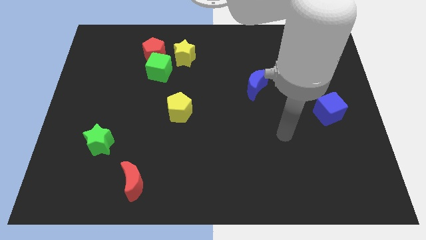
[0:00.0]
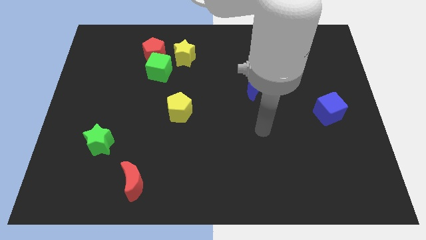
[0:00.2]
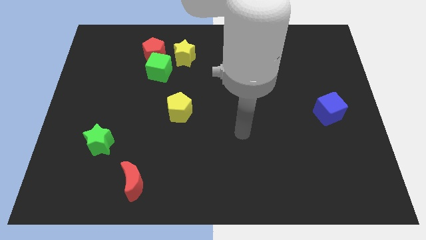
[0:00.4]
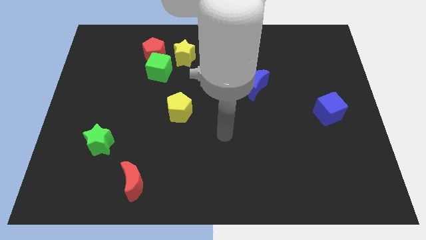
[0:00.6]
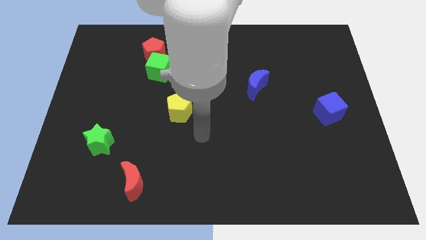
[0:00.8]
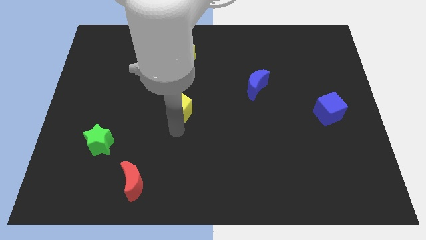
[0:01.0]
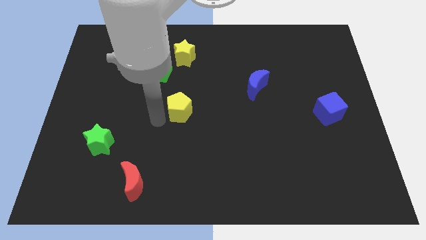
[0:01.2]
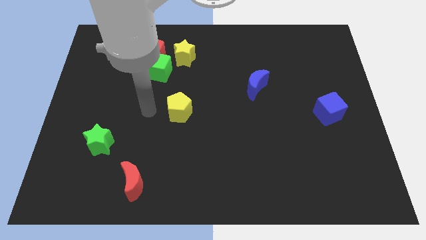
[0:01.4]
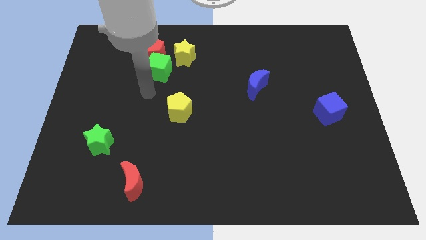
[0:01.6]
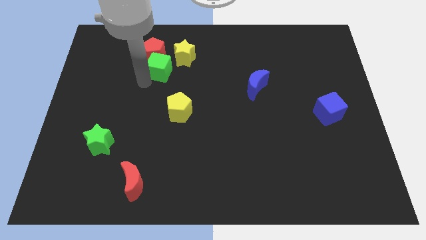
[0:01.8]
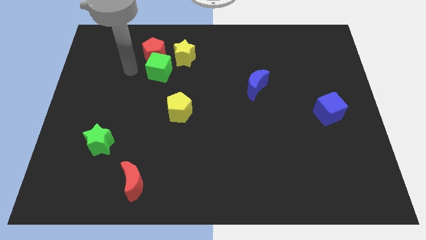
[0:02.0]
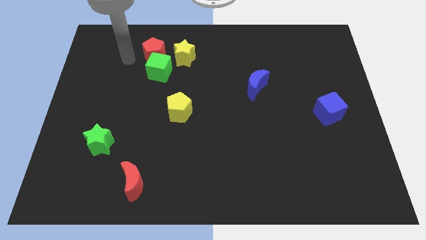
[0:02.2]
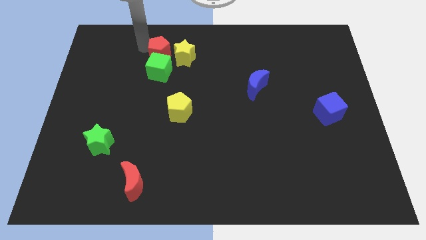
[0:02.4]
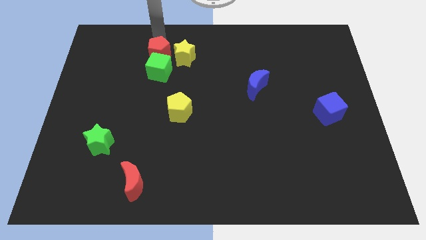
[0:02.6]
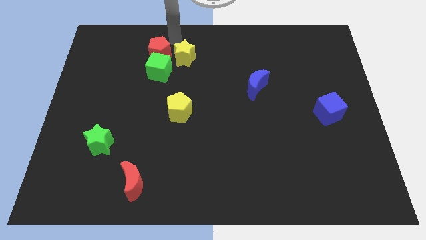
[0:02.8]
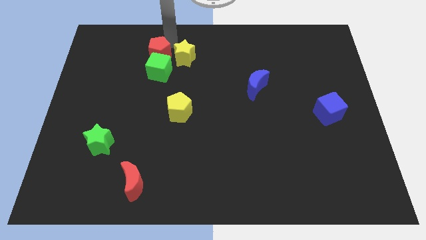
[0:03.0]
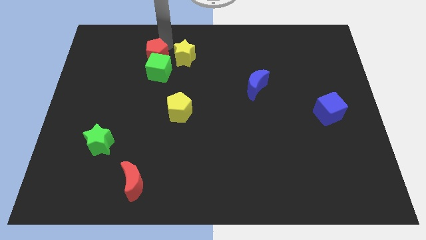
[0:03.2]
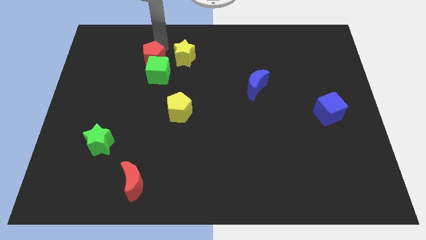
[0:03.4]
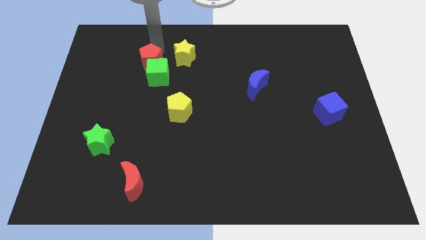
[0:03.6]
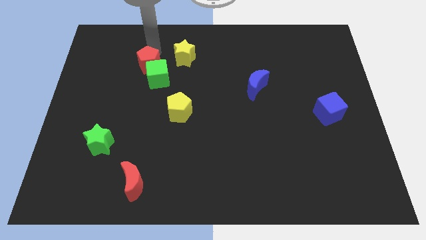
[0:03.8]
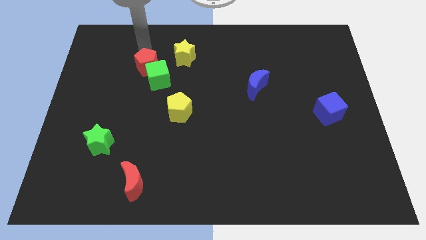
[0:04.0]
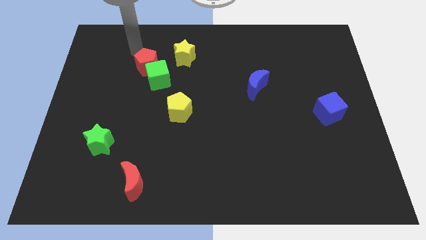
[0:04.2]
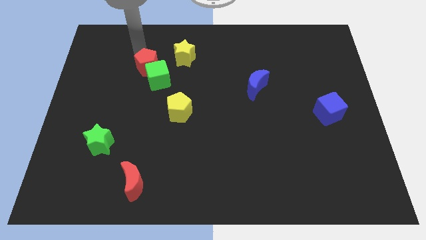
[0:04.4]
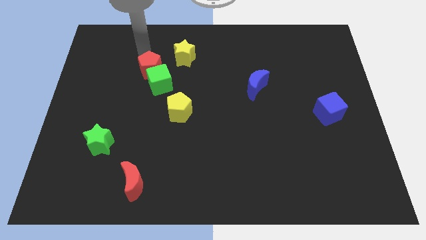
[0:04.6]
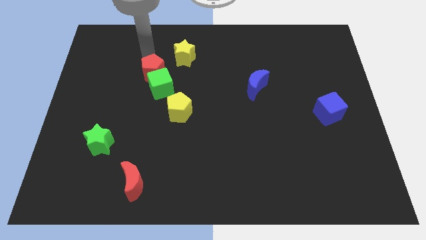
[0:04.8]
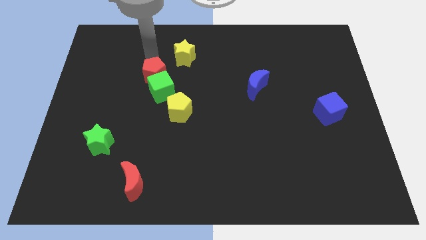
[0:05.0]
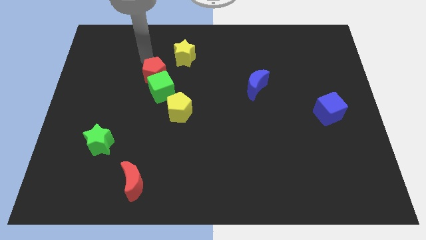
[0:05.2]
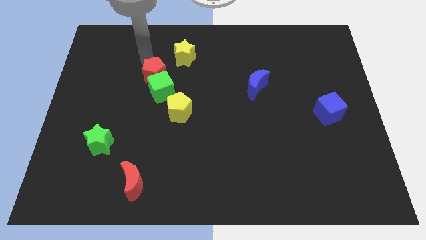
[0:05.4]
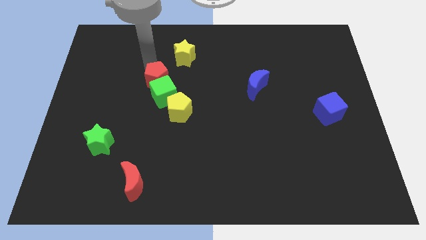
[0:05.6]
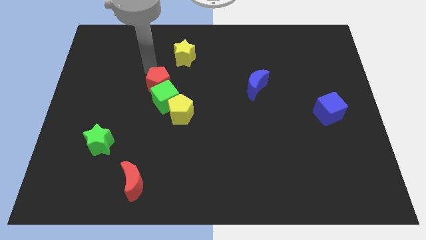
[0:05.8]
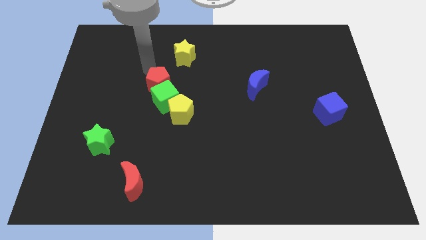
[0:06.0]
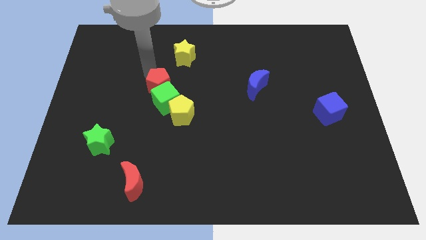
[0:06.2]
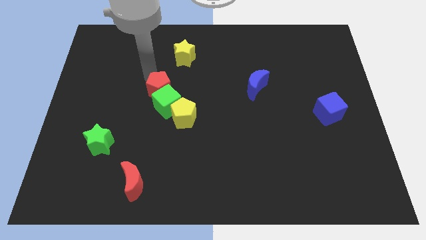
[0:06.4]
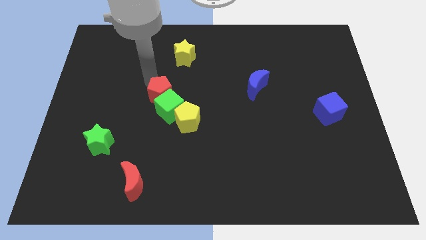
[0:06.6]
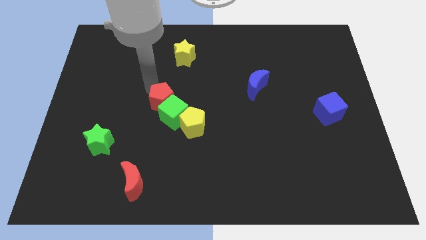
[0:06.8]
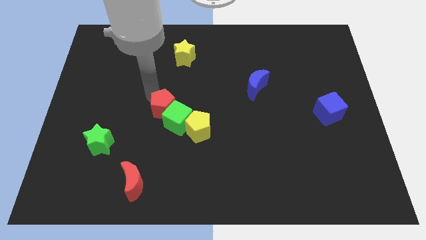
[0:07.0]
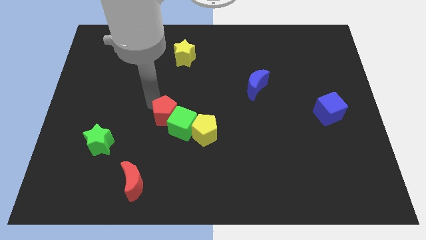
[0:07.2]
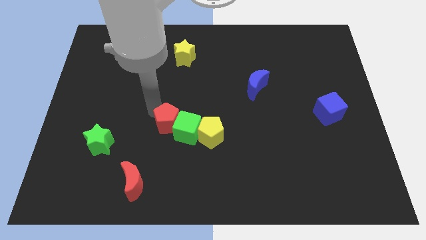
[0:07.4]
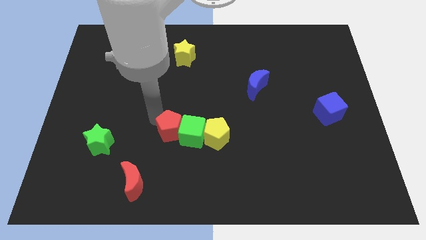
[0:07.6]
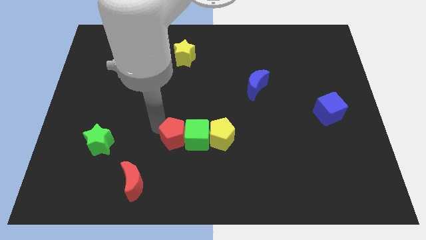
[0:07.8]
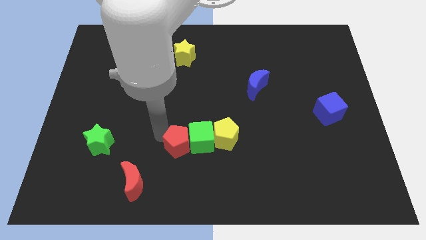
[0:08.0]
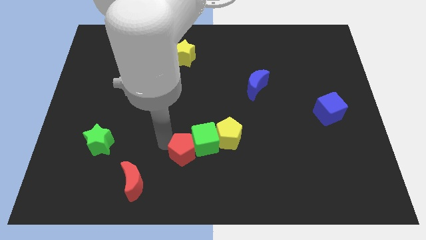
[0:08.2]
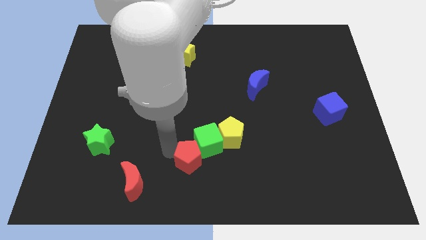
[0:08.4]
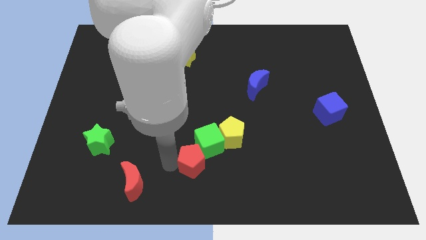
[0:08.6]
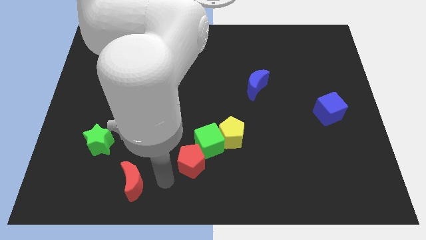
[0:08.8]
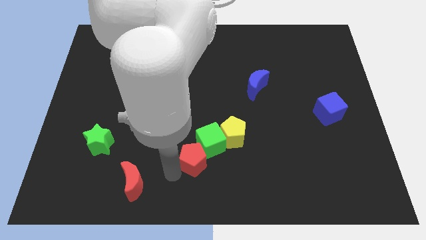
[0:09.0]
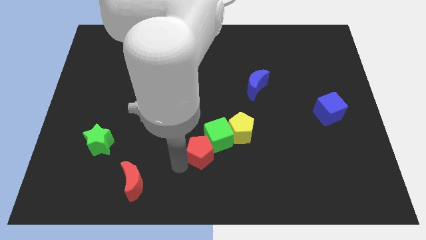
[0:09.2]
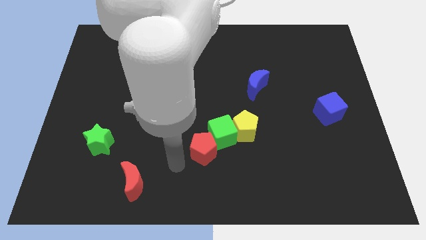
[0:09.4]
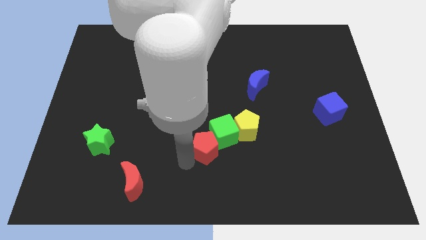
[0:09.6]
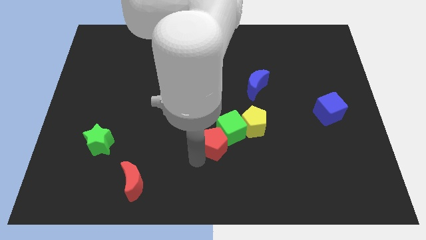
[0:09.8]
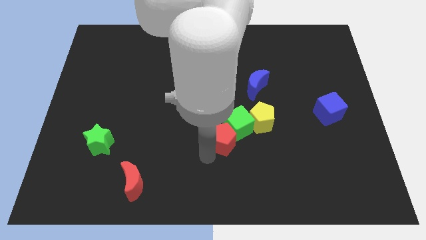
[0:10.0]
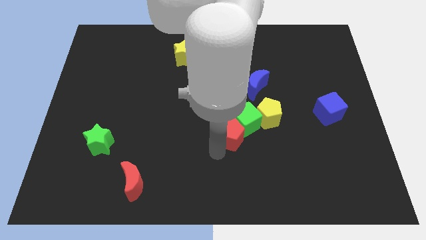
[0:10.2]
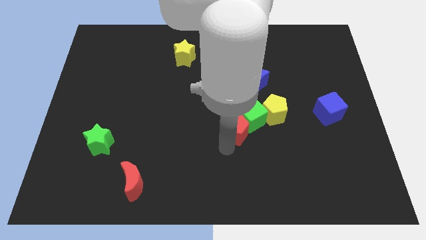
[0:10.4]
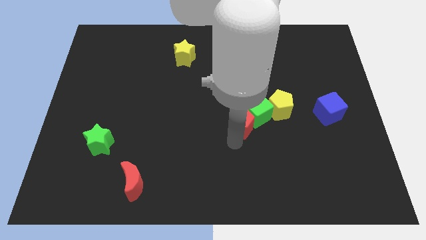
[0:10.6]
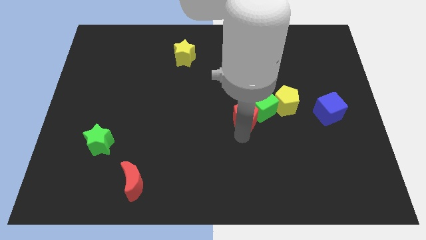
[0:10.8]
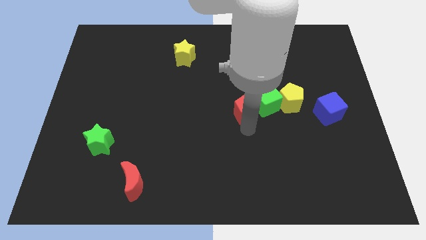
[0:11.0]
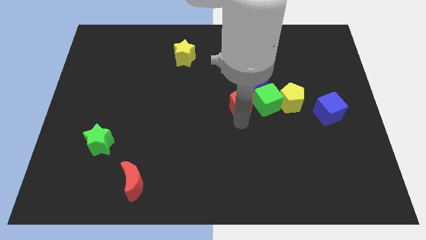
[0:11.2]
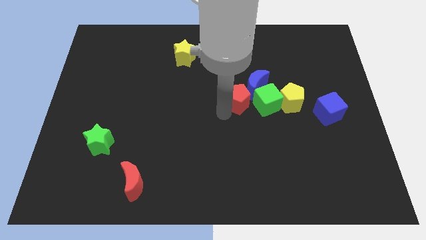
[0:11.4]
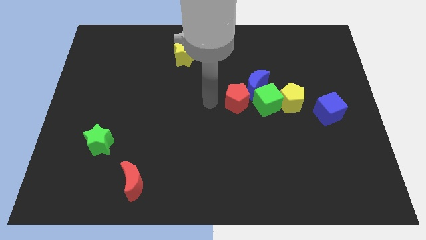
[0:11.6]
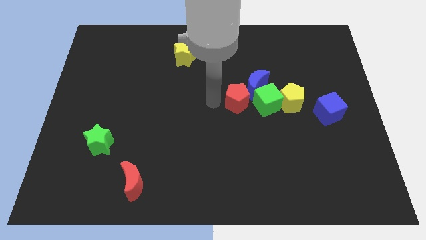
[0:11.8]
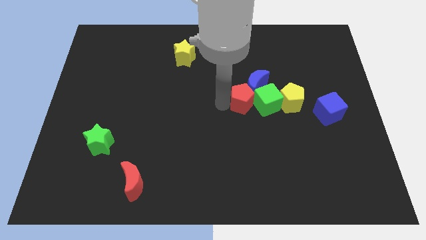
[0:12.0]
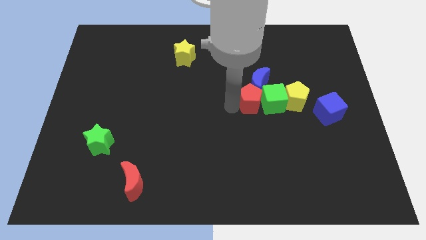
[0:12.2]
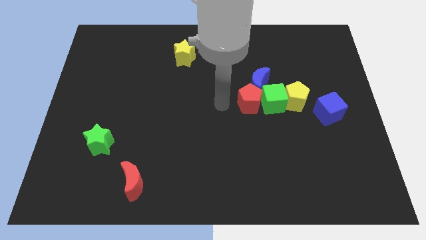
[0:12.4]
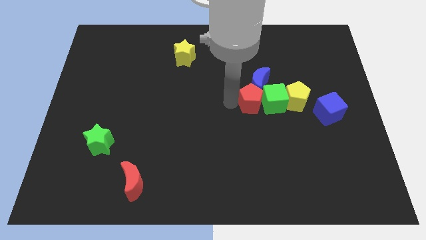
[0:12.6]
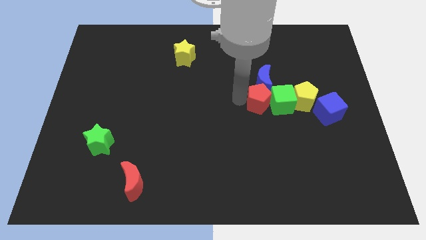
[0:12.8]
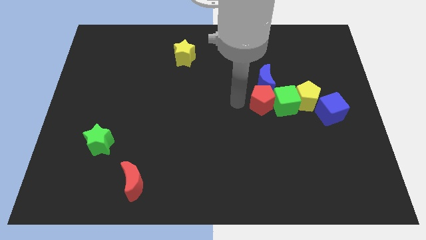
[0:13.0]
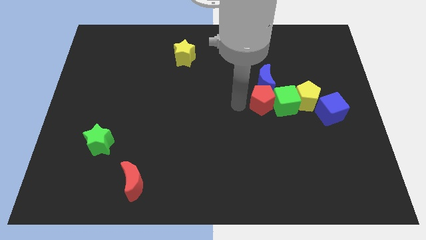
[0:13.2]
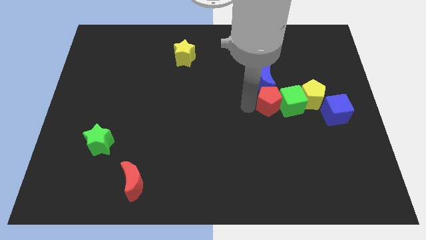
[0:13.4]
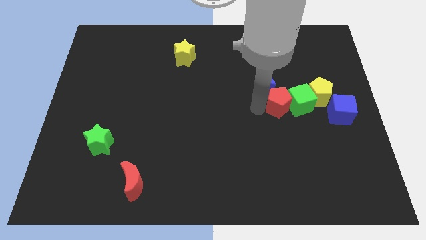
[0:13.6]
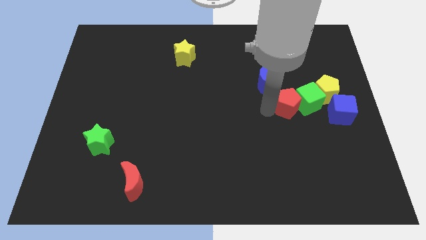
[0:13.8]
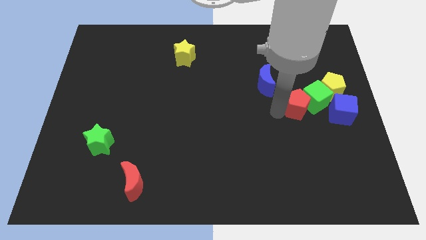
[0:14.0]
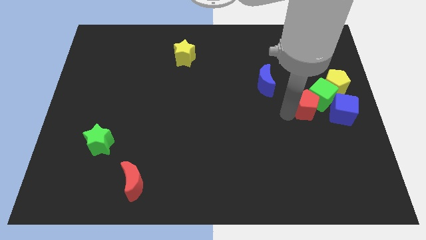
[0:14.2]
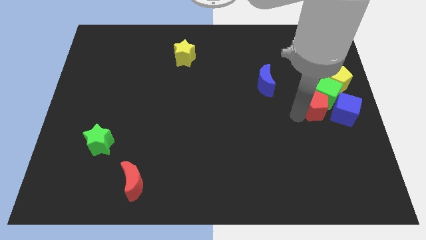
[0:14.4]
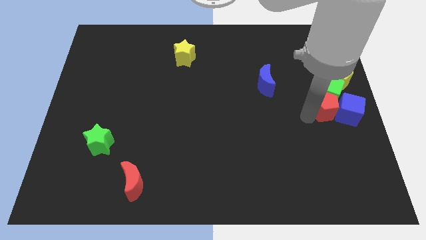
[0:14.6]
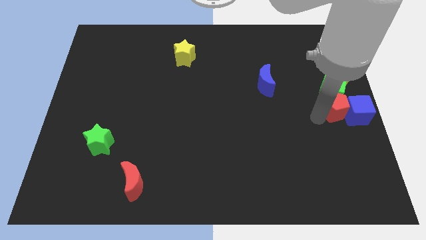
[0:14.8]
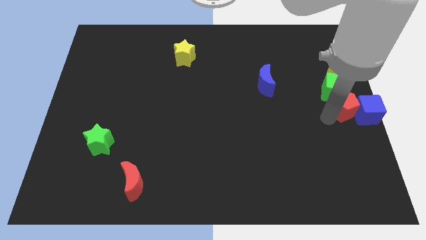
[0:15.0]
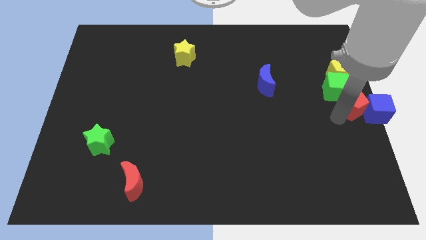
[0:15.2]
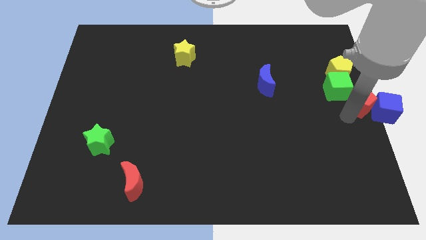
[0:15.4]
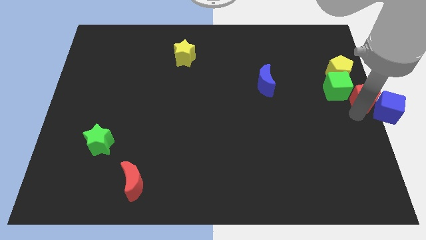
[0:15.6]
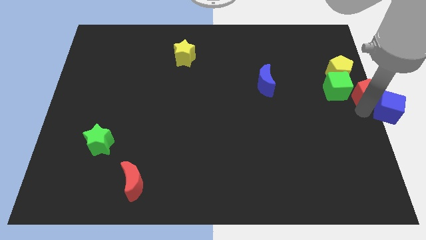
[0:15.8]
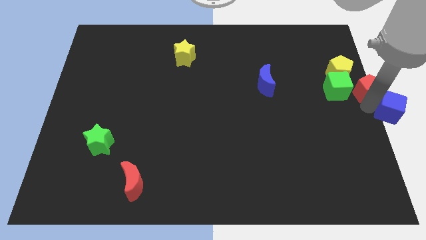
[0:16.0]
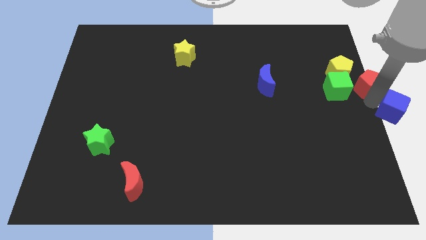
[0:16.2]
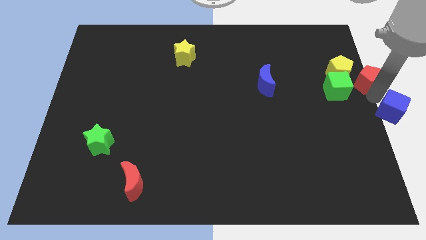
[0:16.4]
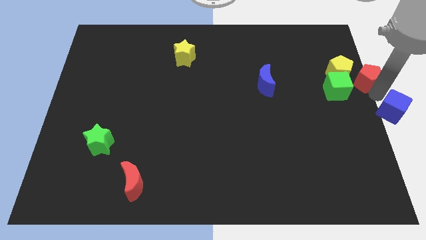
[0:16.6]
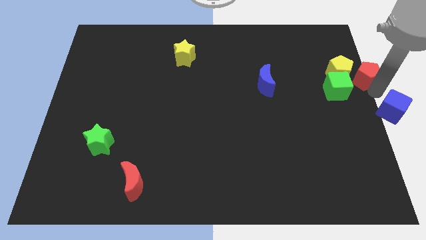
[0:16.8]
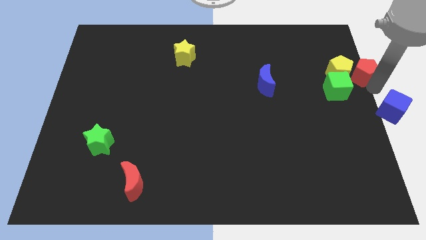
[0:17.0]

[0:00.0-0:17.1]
put the red pentagon towards the yellow pentagon
